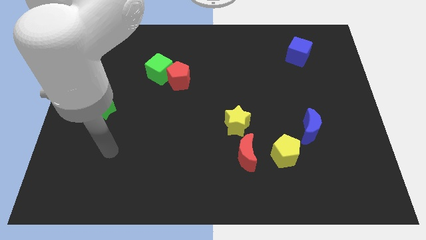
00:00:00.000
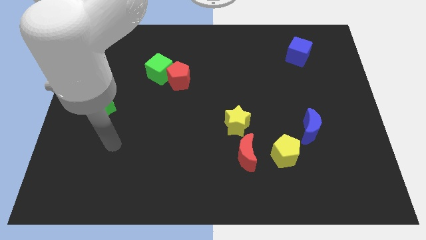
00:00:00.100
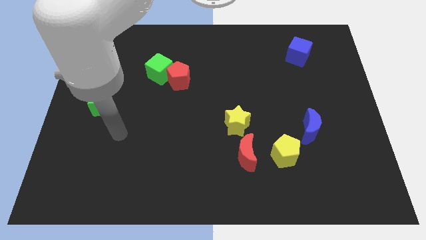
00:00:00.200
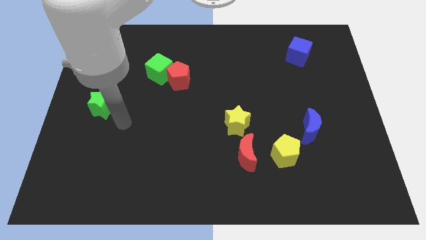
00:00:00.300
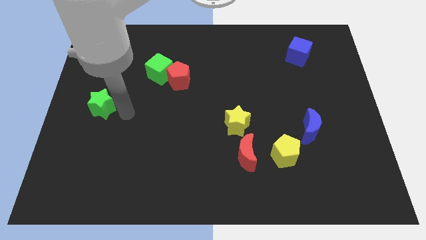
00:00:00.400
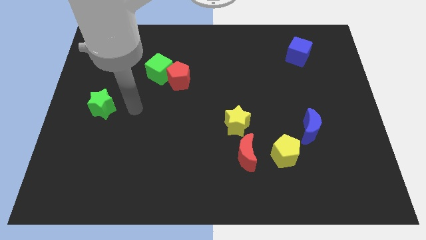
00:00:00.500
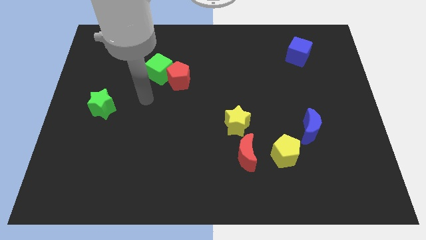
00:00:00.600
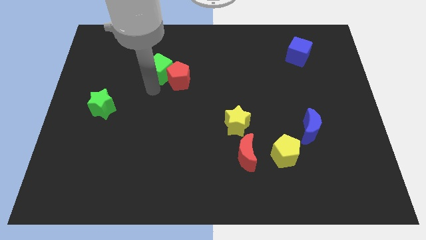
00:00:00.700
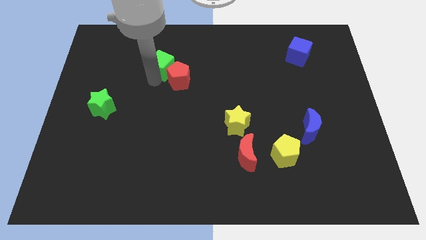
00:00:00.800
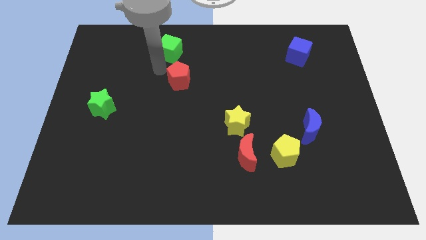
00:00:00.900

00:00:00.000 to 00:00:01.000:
separate the red pentagon from the green cube

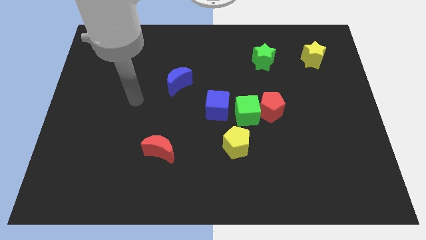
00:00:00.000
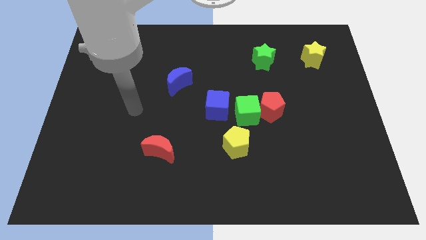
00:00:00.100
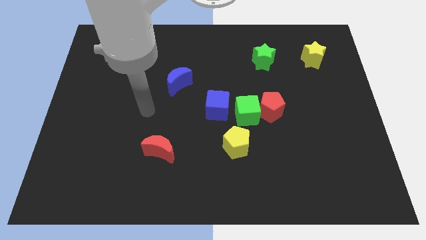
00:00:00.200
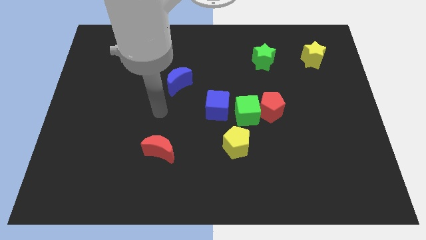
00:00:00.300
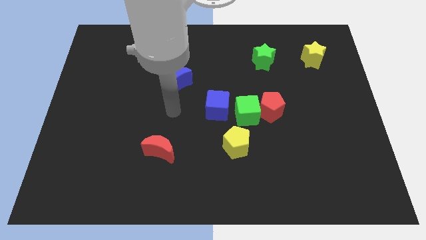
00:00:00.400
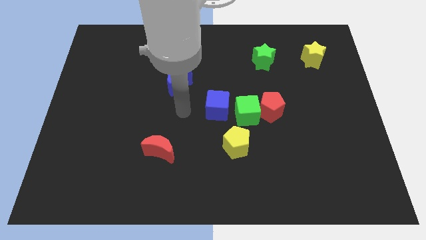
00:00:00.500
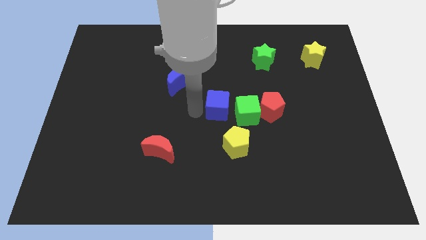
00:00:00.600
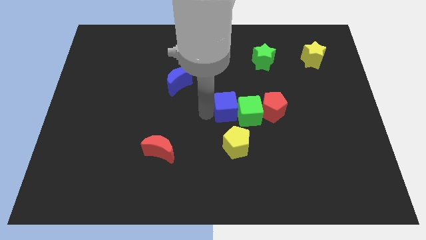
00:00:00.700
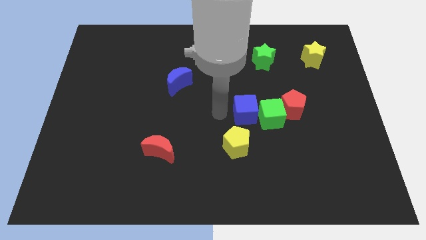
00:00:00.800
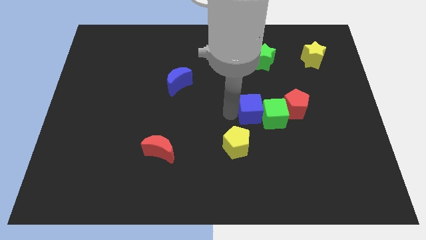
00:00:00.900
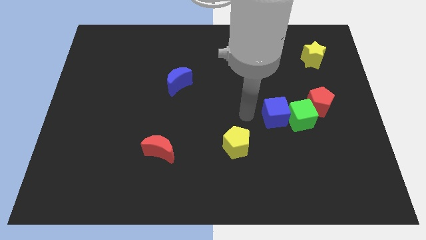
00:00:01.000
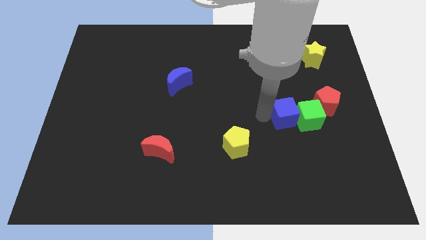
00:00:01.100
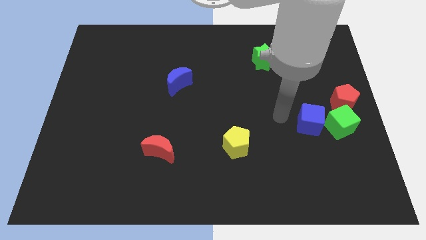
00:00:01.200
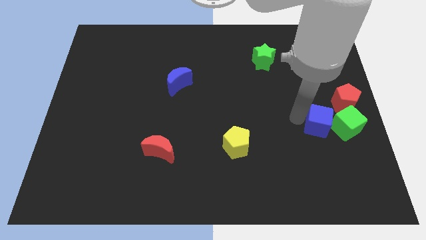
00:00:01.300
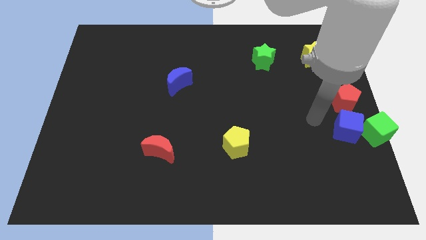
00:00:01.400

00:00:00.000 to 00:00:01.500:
pull the red pentagon apart from the green cube

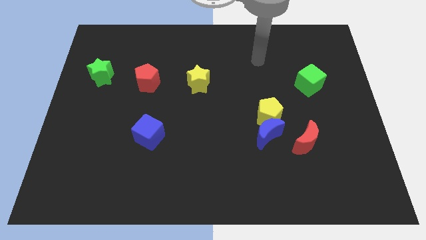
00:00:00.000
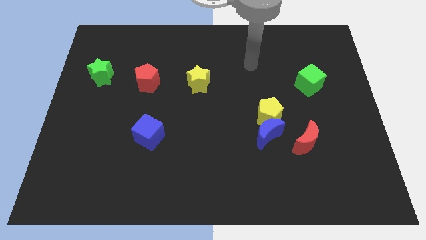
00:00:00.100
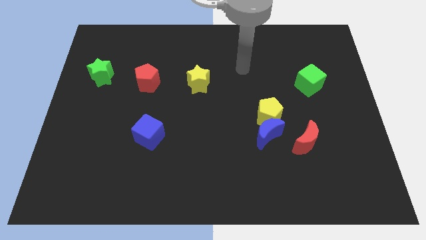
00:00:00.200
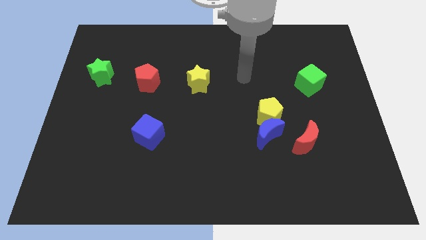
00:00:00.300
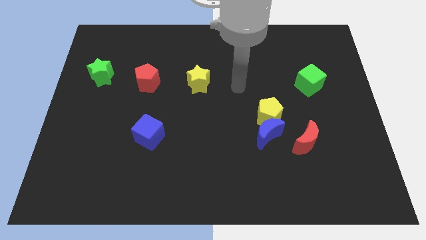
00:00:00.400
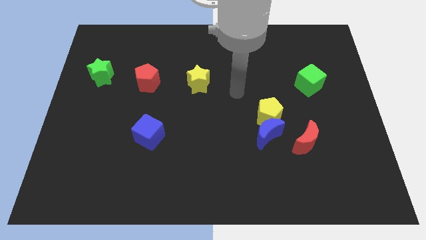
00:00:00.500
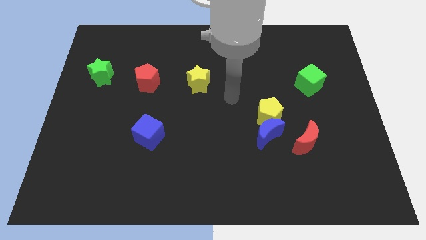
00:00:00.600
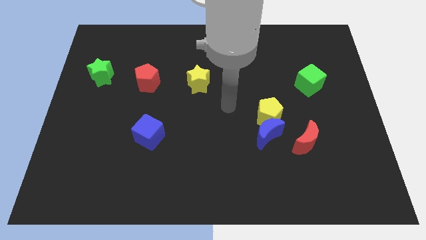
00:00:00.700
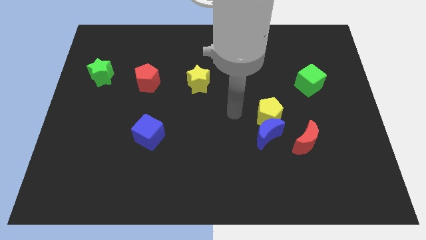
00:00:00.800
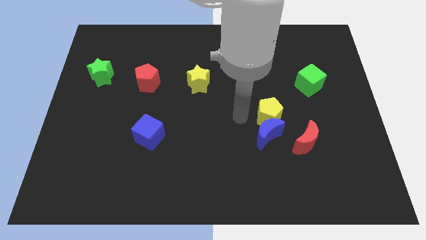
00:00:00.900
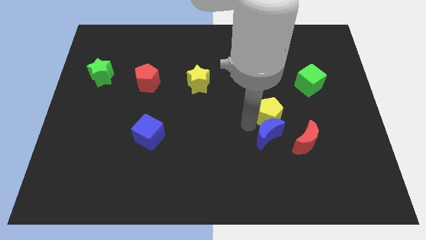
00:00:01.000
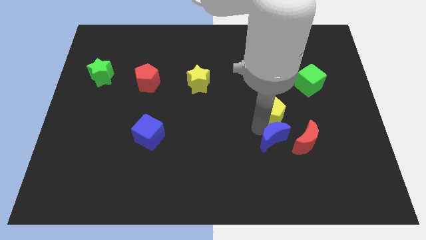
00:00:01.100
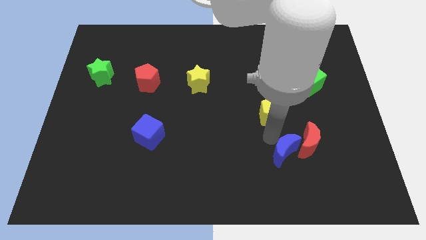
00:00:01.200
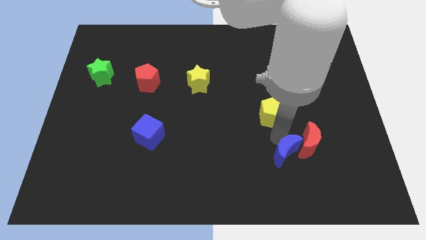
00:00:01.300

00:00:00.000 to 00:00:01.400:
pull the yellow pentagon apart from the blue moon

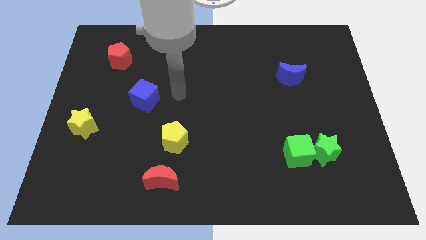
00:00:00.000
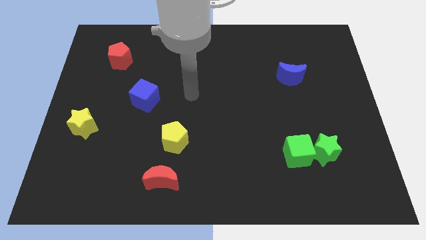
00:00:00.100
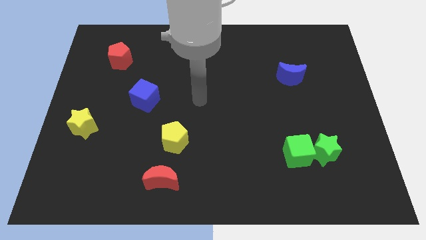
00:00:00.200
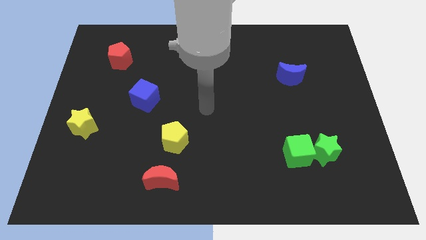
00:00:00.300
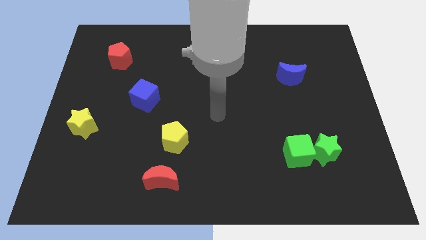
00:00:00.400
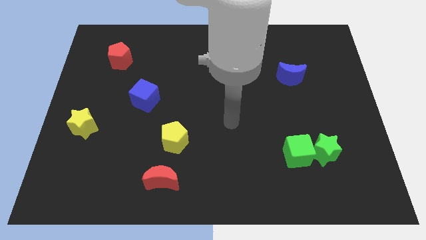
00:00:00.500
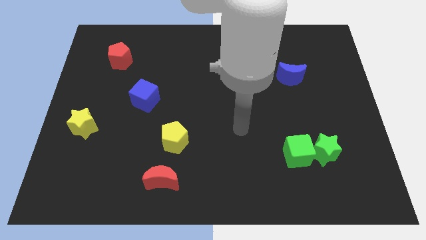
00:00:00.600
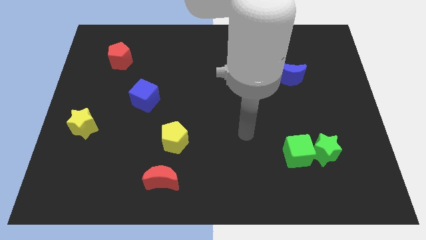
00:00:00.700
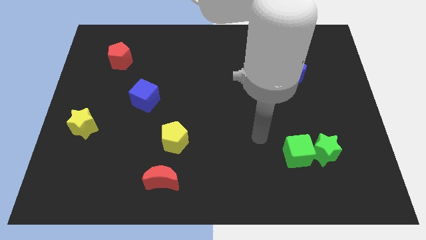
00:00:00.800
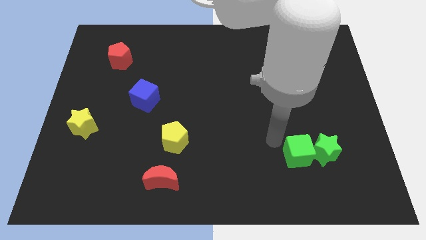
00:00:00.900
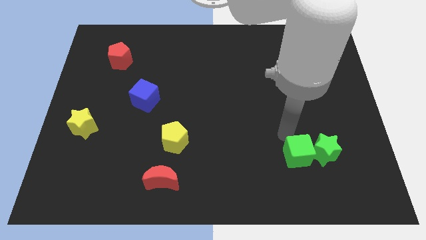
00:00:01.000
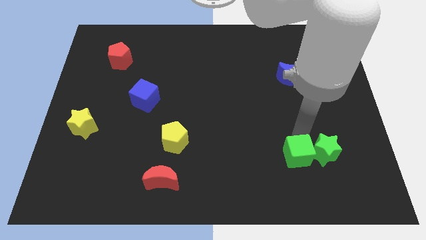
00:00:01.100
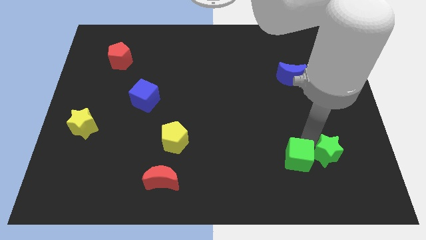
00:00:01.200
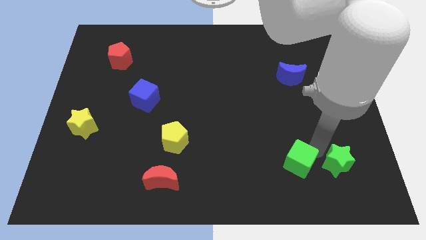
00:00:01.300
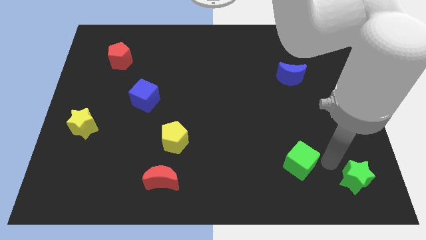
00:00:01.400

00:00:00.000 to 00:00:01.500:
move the green cube away from the green star

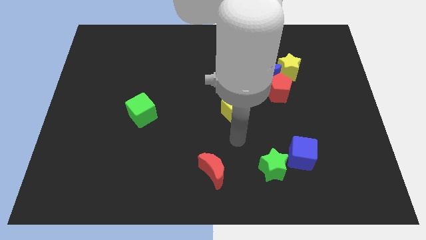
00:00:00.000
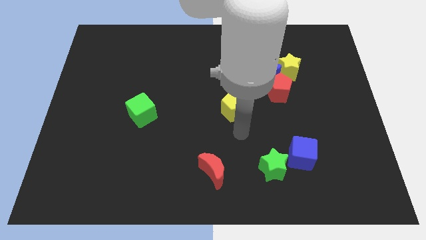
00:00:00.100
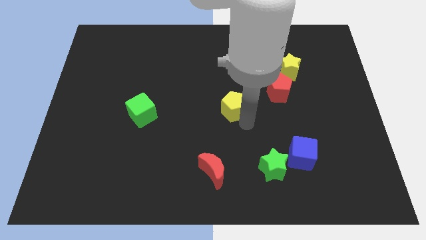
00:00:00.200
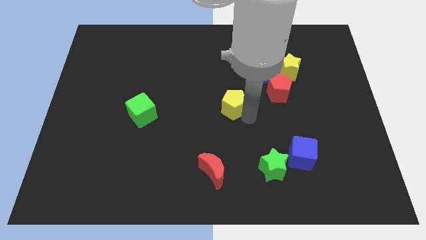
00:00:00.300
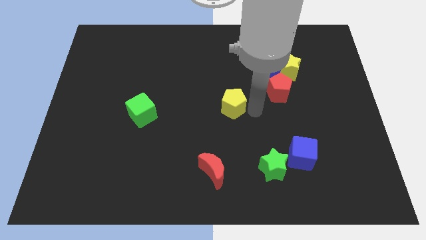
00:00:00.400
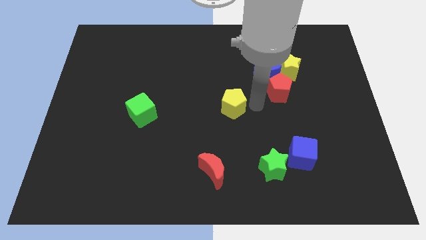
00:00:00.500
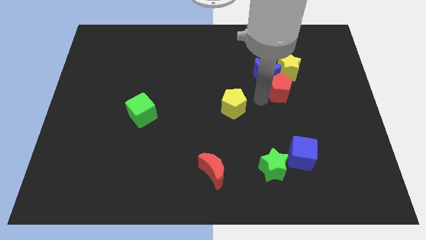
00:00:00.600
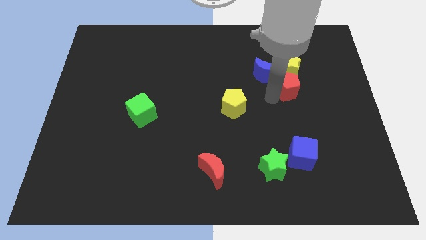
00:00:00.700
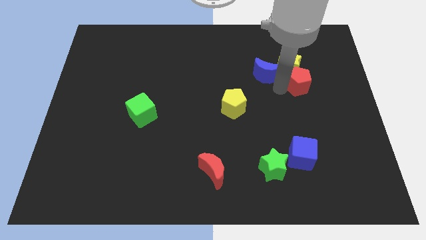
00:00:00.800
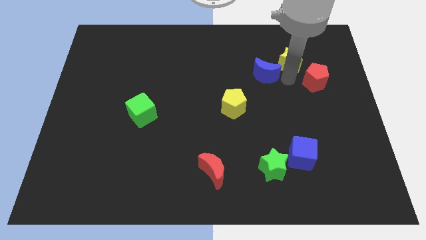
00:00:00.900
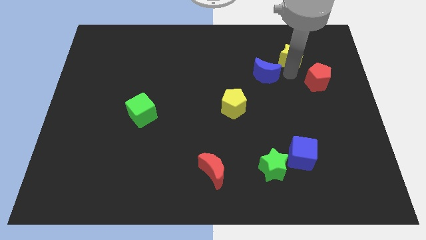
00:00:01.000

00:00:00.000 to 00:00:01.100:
pull the blue moon apart from the yellow star and red pentagon

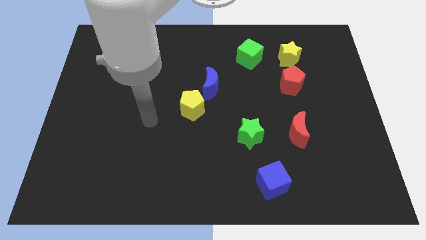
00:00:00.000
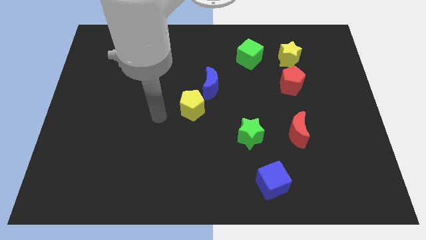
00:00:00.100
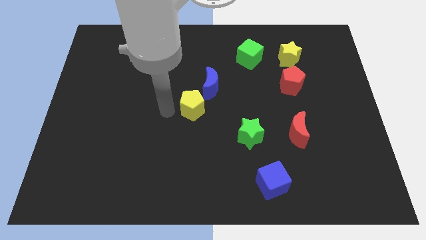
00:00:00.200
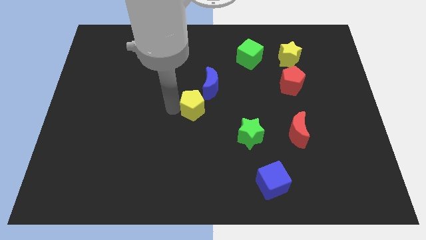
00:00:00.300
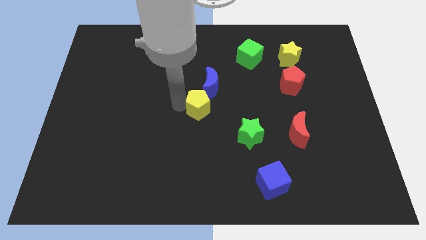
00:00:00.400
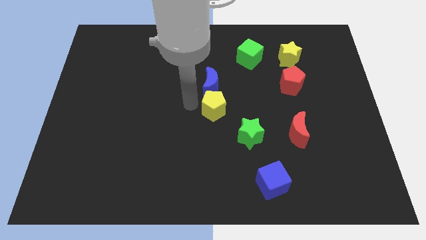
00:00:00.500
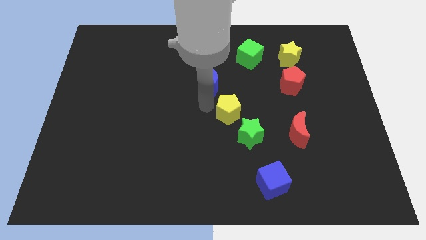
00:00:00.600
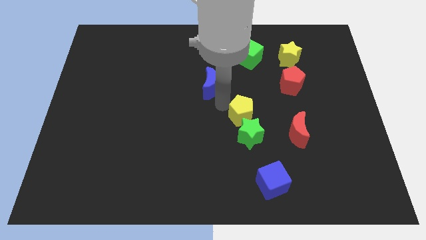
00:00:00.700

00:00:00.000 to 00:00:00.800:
pull the blue moon apart from the yellow pentagon

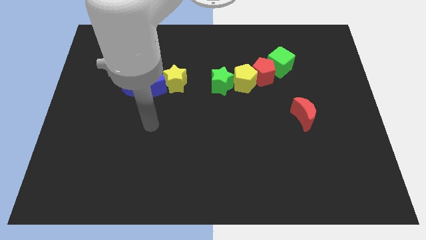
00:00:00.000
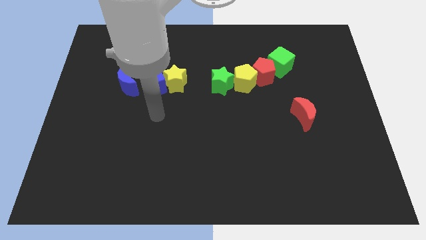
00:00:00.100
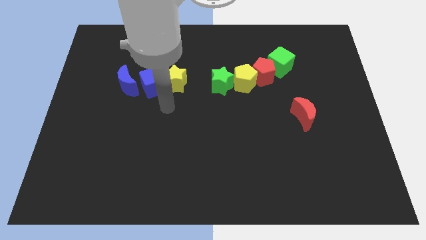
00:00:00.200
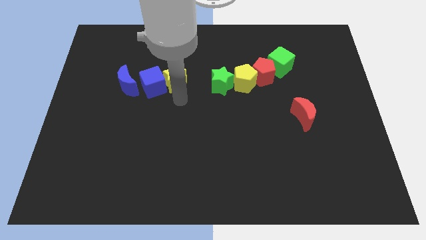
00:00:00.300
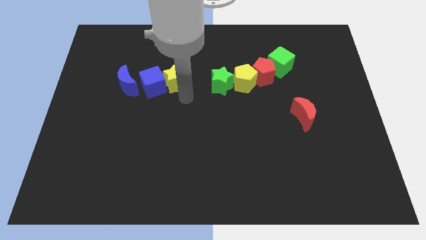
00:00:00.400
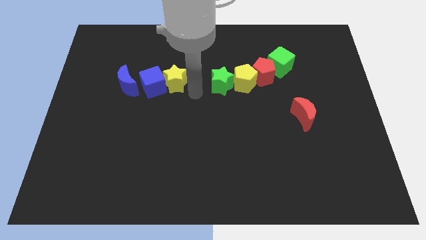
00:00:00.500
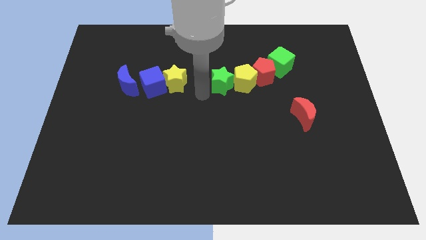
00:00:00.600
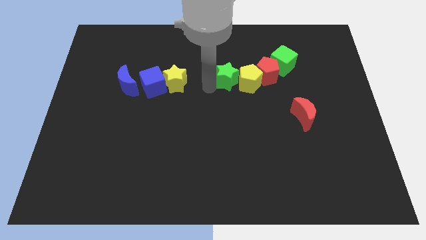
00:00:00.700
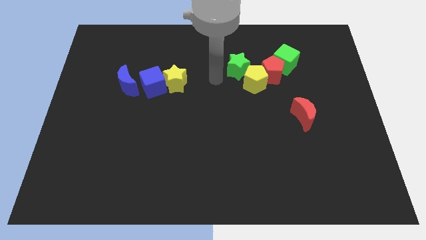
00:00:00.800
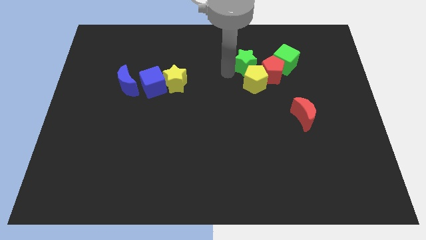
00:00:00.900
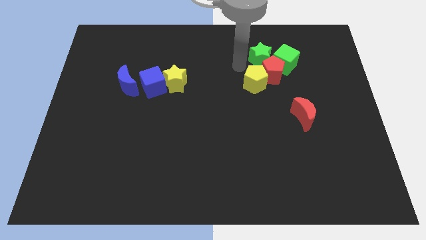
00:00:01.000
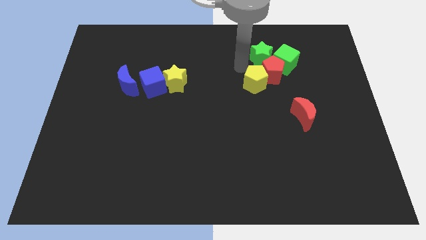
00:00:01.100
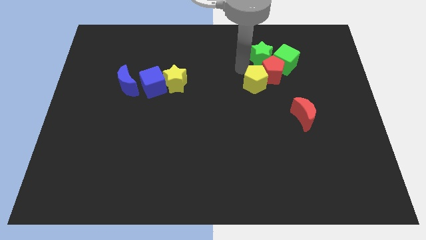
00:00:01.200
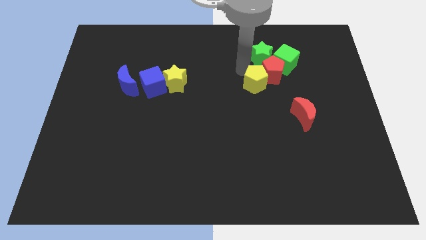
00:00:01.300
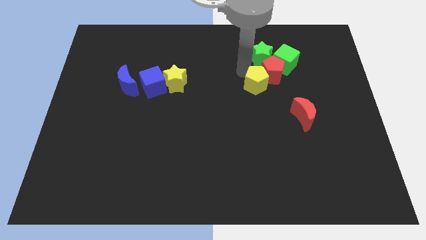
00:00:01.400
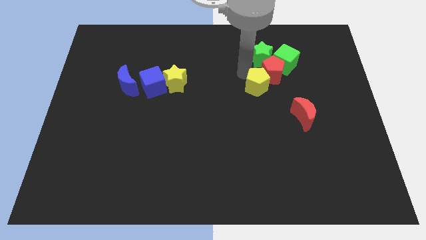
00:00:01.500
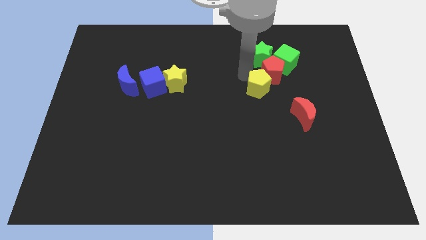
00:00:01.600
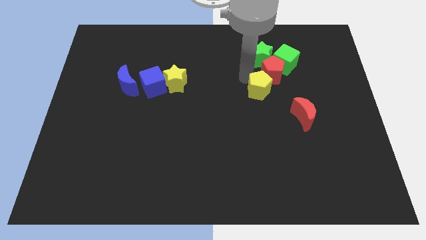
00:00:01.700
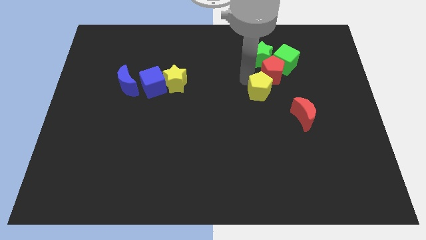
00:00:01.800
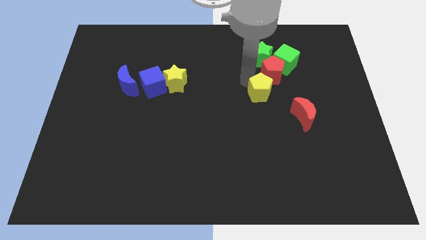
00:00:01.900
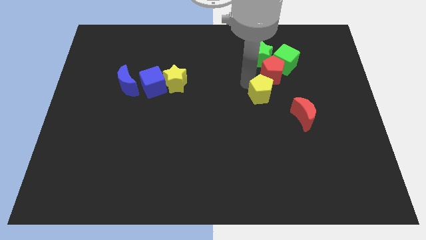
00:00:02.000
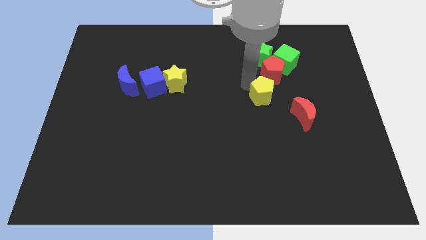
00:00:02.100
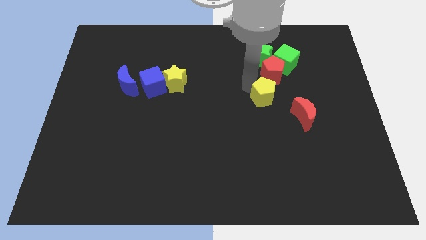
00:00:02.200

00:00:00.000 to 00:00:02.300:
separate the yellow pentagon from the red pentagon and green star
